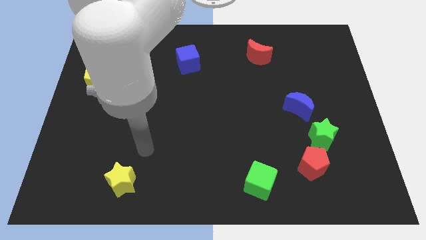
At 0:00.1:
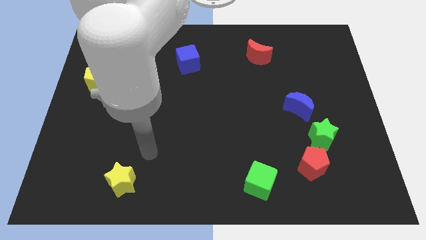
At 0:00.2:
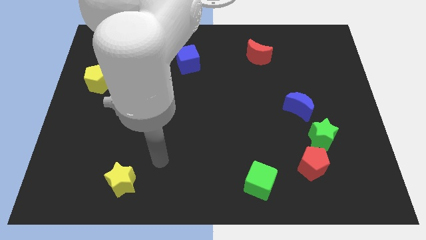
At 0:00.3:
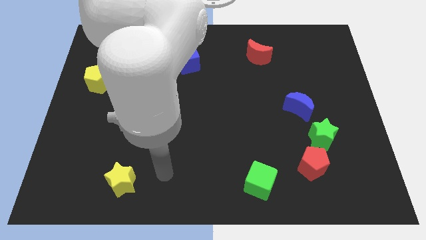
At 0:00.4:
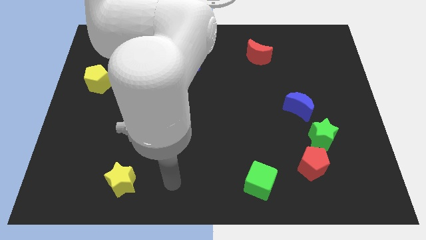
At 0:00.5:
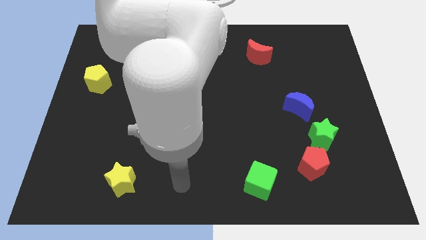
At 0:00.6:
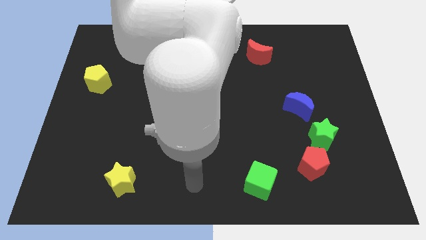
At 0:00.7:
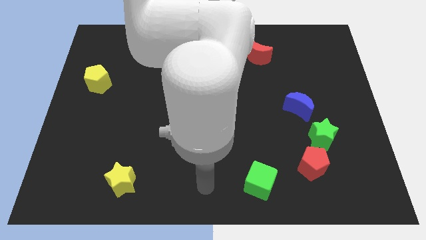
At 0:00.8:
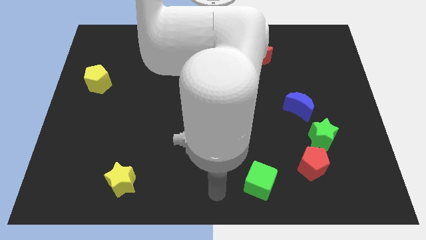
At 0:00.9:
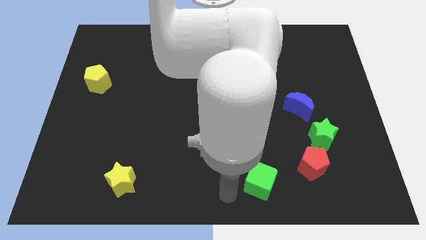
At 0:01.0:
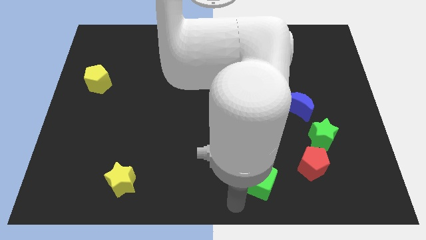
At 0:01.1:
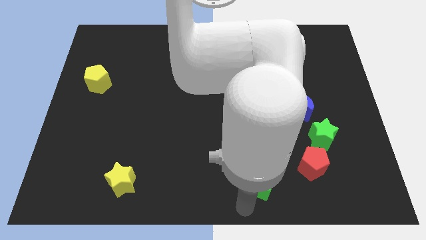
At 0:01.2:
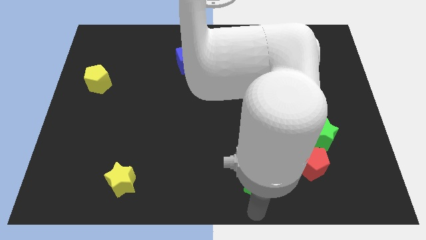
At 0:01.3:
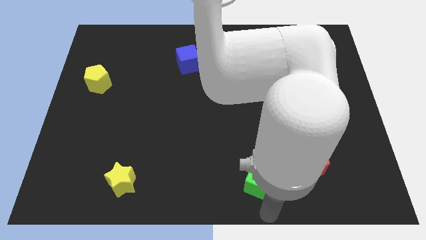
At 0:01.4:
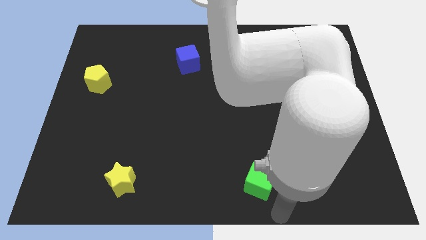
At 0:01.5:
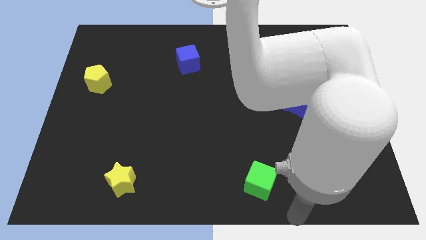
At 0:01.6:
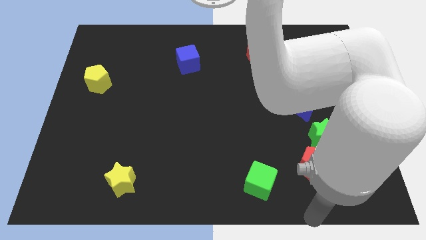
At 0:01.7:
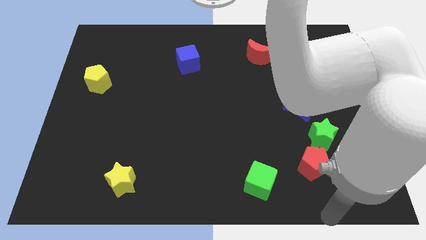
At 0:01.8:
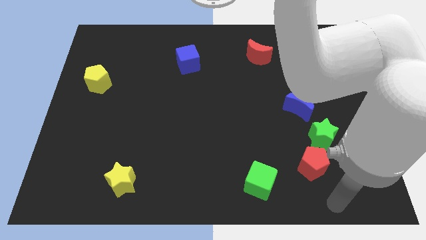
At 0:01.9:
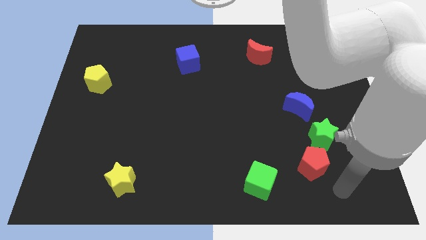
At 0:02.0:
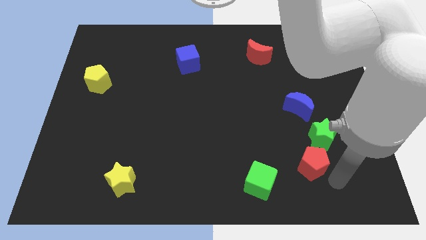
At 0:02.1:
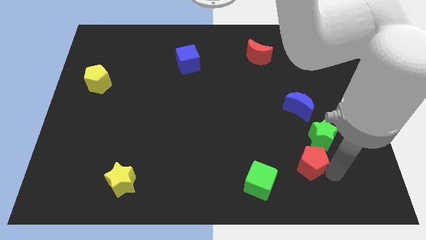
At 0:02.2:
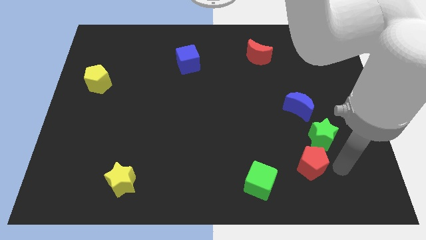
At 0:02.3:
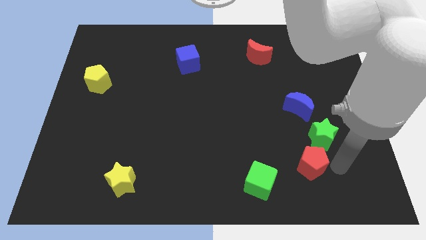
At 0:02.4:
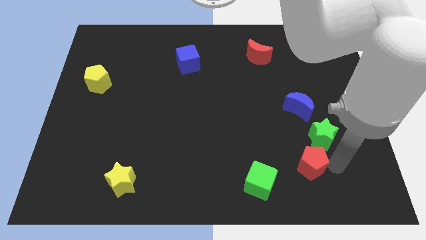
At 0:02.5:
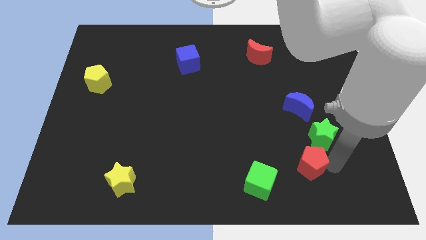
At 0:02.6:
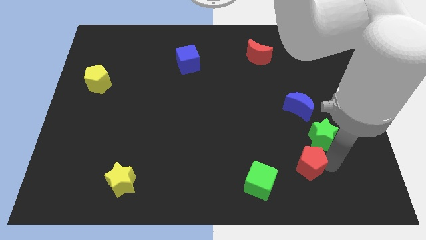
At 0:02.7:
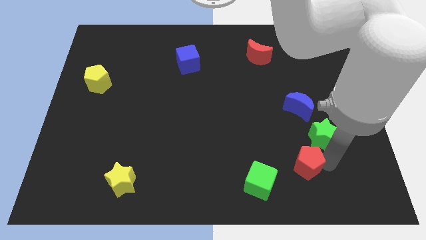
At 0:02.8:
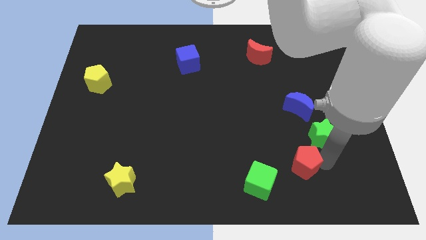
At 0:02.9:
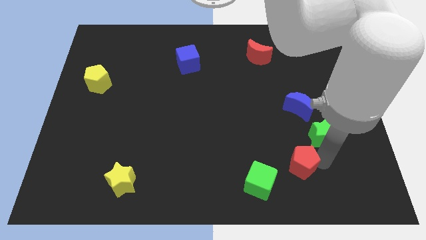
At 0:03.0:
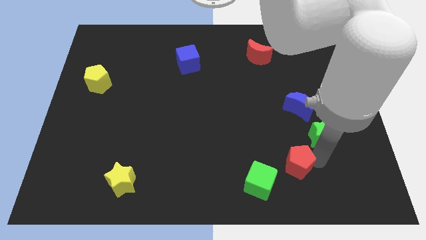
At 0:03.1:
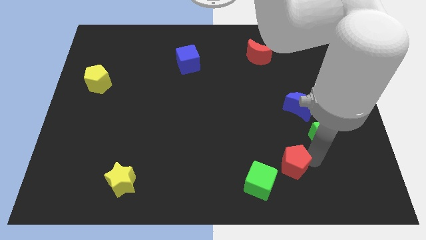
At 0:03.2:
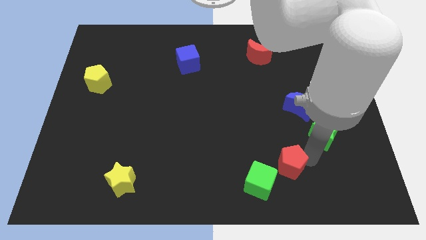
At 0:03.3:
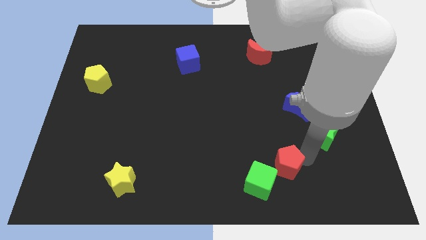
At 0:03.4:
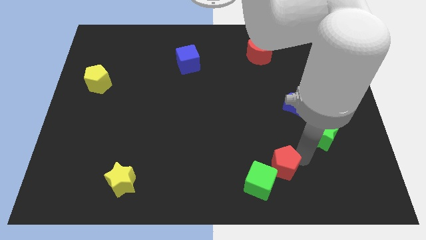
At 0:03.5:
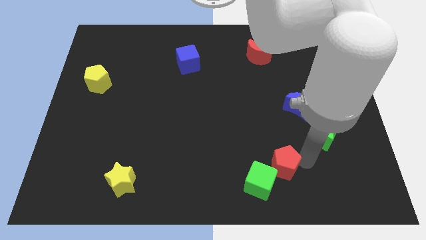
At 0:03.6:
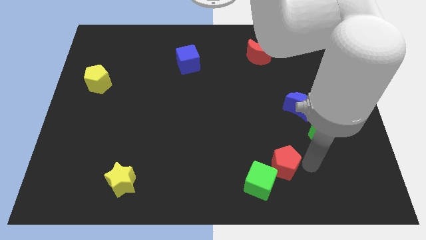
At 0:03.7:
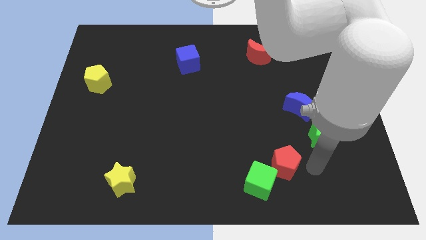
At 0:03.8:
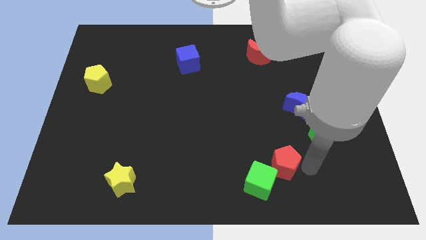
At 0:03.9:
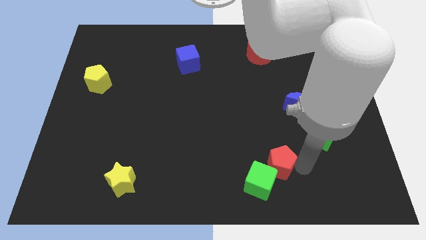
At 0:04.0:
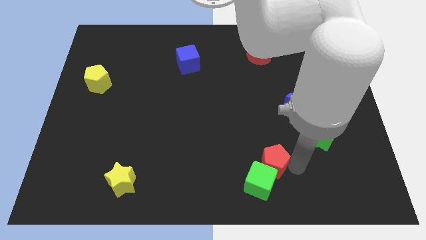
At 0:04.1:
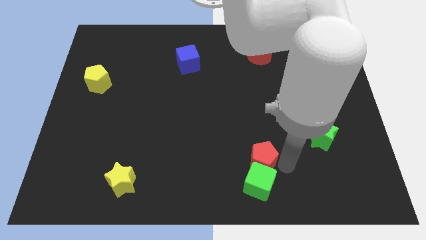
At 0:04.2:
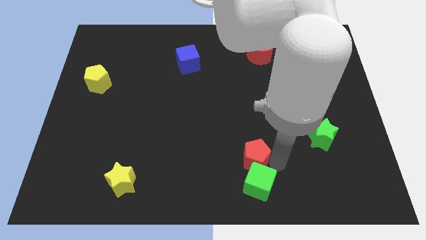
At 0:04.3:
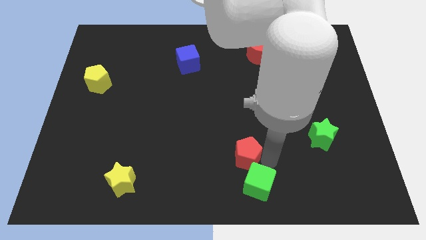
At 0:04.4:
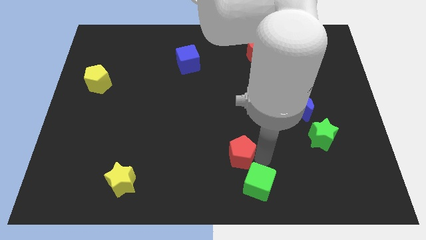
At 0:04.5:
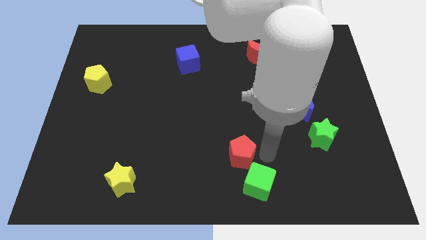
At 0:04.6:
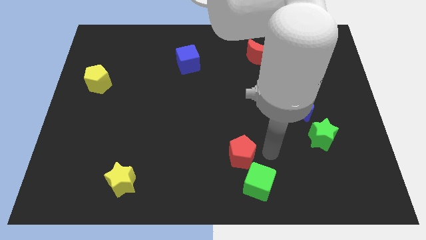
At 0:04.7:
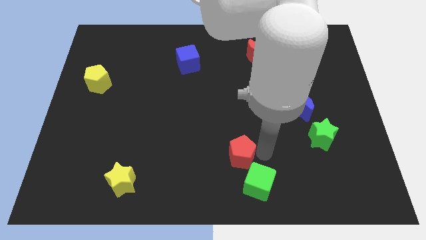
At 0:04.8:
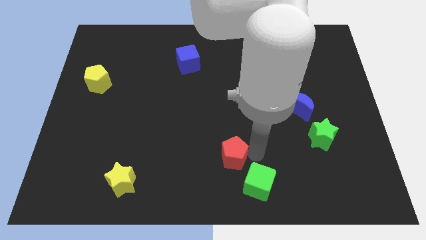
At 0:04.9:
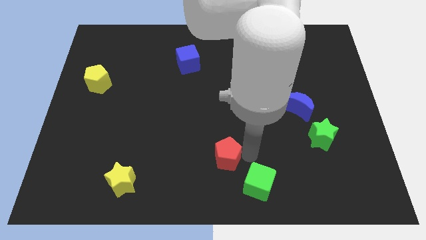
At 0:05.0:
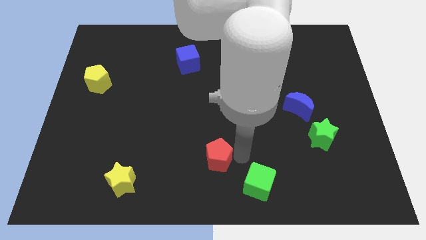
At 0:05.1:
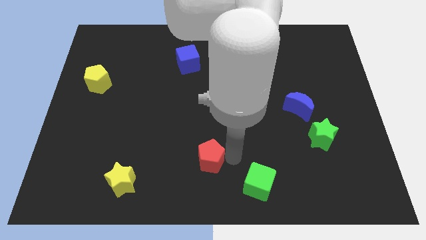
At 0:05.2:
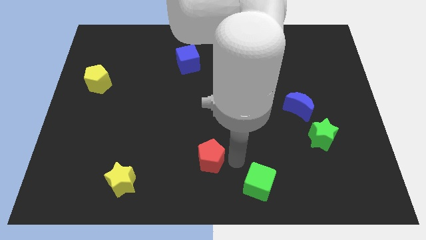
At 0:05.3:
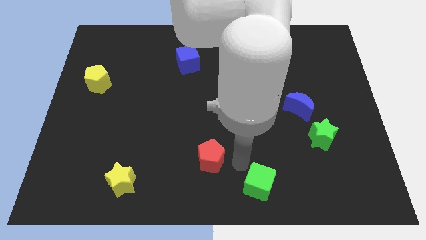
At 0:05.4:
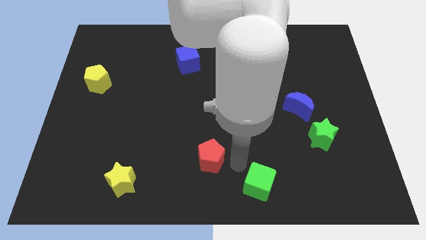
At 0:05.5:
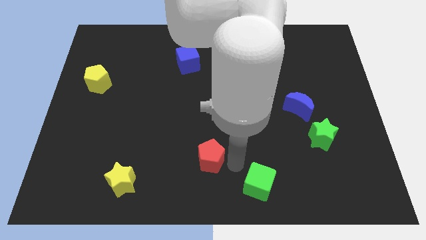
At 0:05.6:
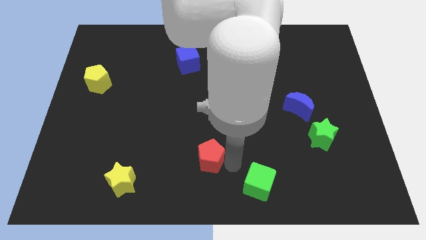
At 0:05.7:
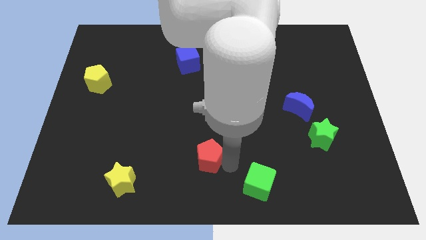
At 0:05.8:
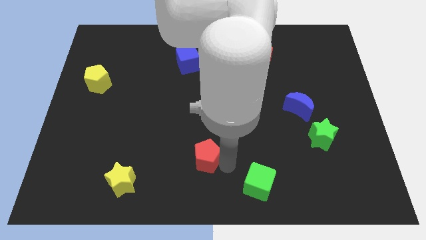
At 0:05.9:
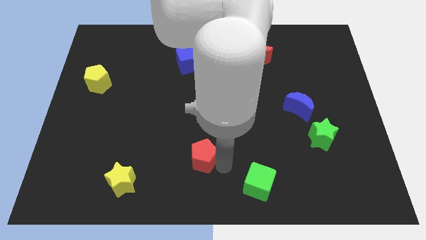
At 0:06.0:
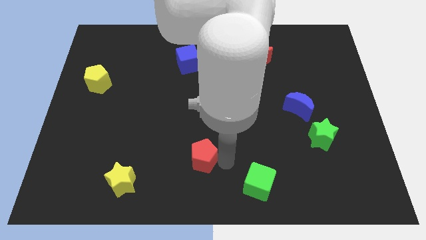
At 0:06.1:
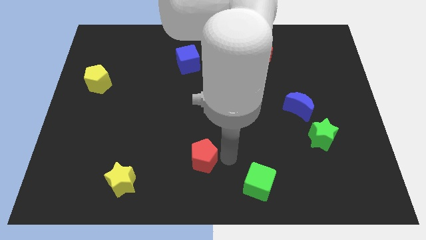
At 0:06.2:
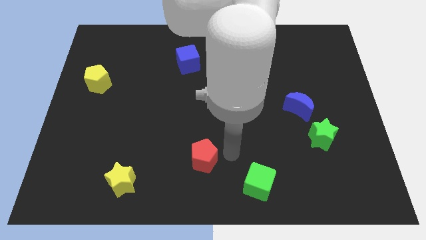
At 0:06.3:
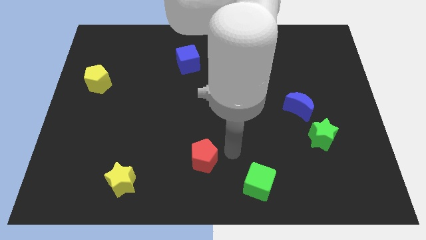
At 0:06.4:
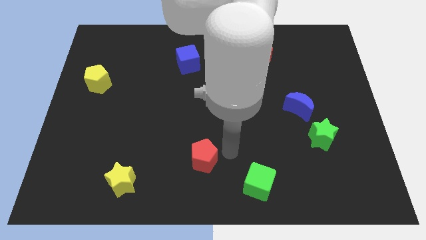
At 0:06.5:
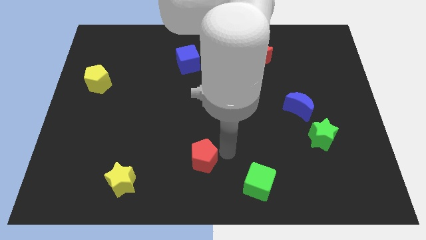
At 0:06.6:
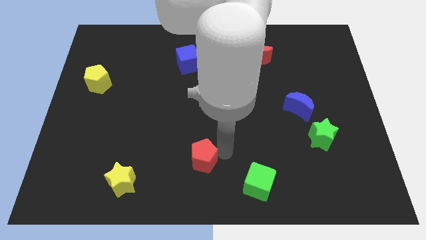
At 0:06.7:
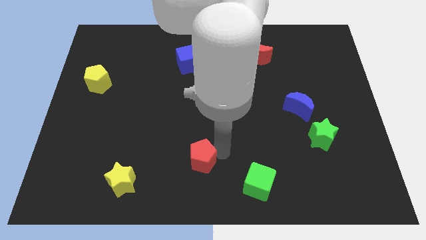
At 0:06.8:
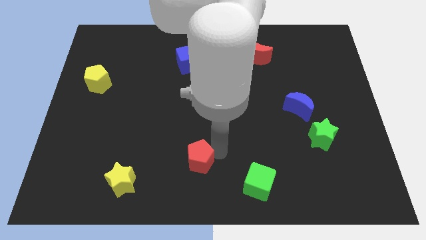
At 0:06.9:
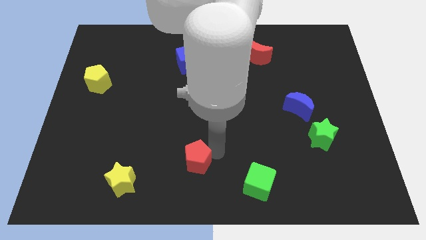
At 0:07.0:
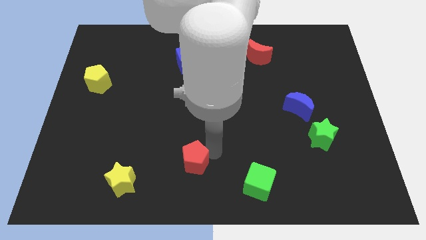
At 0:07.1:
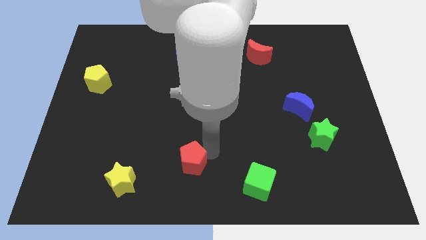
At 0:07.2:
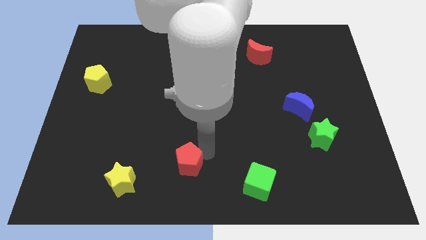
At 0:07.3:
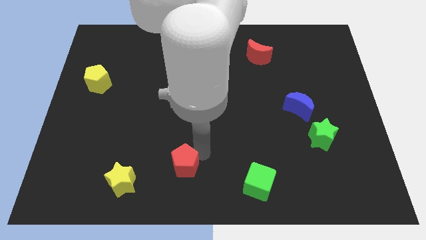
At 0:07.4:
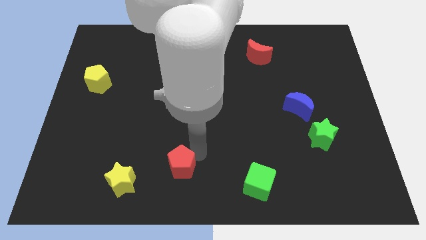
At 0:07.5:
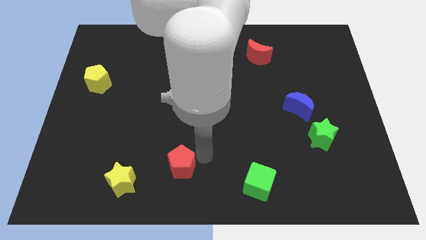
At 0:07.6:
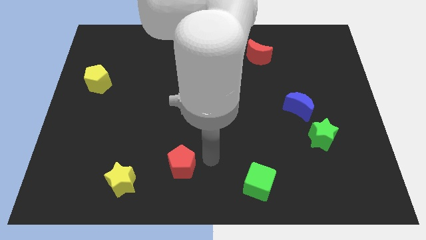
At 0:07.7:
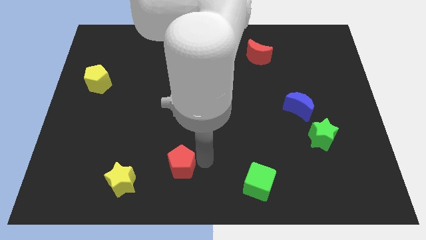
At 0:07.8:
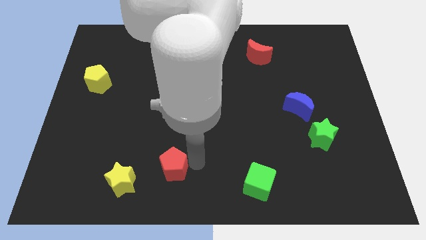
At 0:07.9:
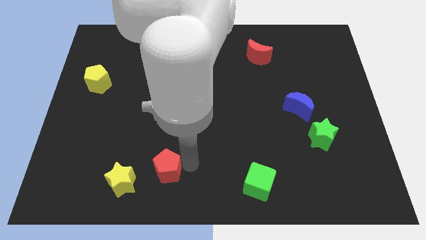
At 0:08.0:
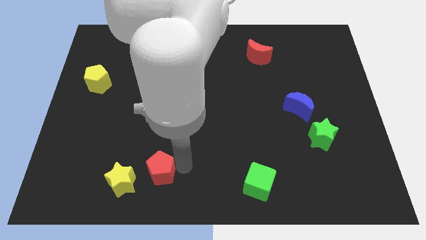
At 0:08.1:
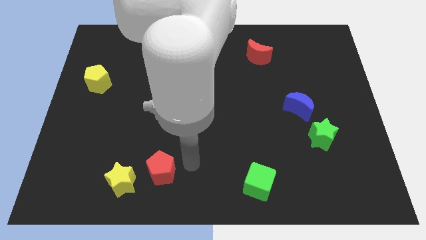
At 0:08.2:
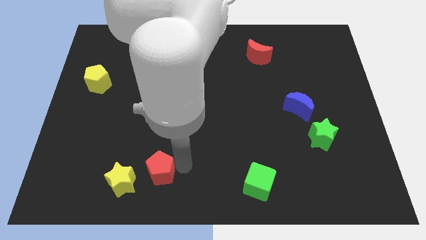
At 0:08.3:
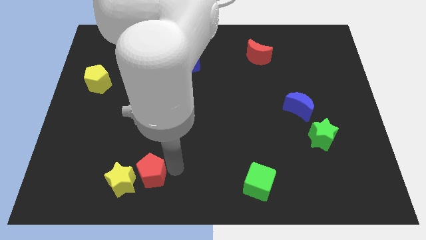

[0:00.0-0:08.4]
put the red pentagon close to the yellow star
